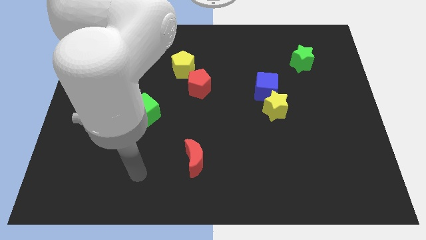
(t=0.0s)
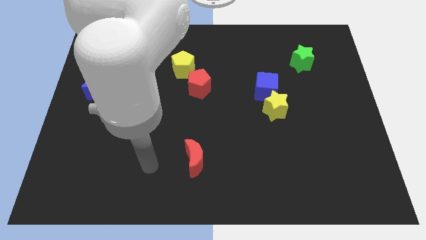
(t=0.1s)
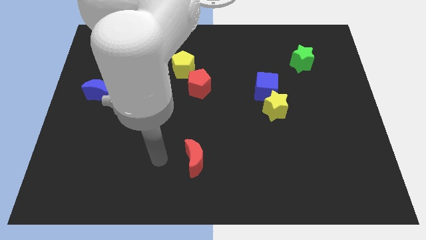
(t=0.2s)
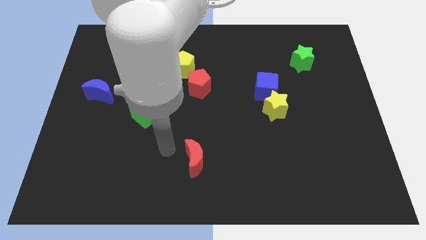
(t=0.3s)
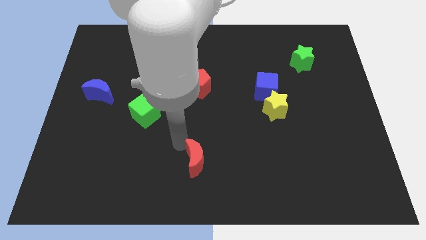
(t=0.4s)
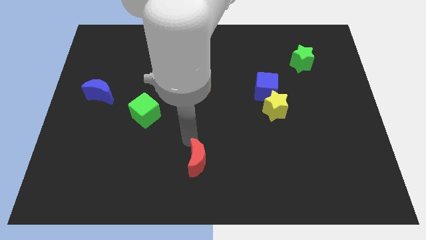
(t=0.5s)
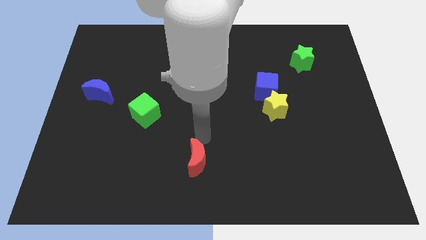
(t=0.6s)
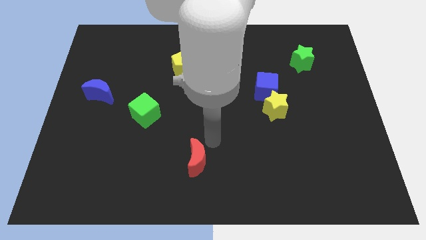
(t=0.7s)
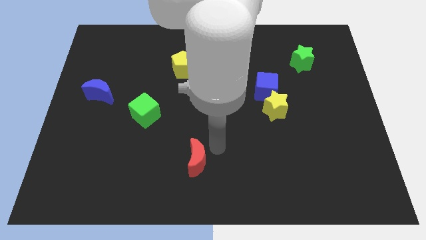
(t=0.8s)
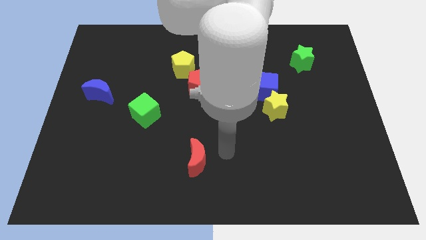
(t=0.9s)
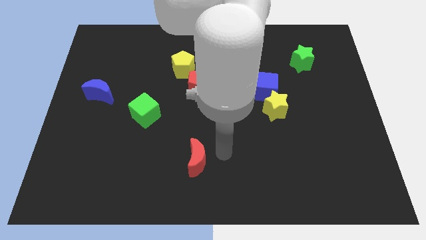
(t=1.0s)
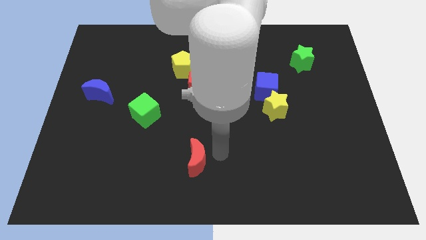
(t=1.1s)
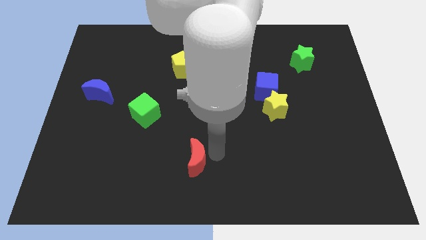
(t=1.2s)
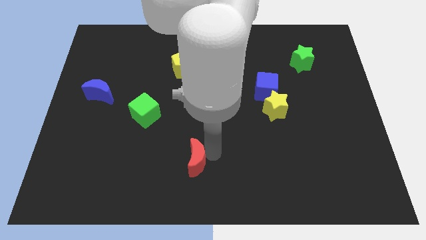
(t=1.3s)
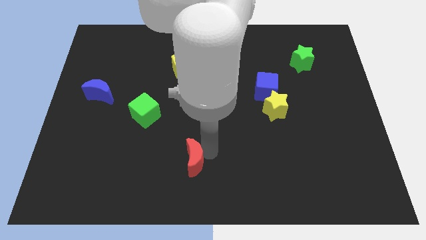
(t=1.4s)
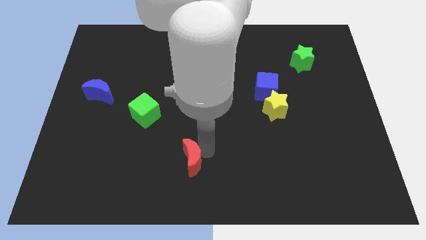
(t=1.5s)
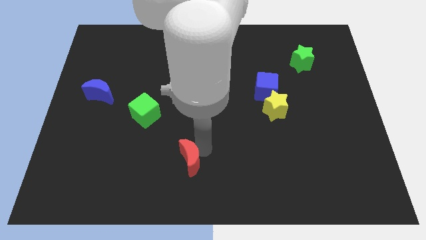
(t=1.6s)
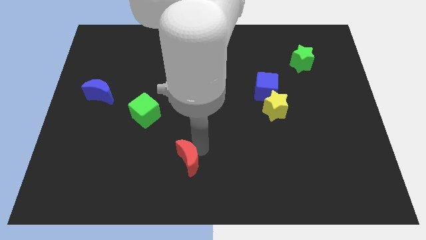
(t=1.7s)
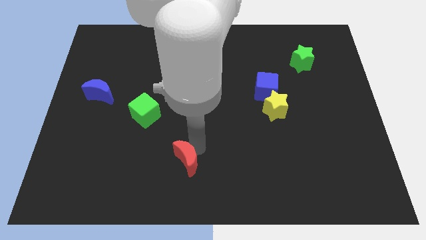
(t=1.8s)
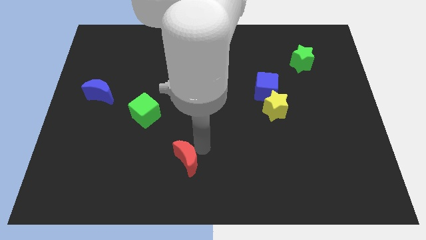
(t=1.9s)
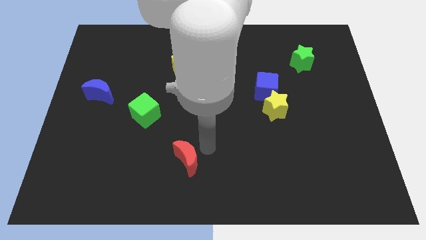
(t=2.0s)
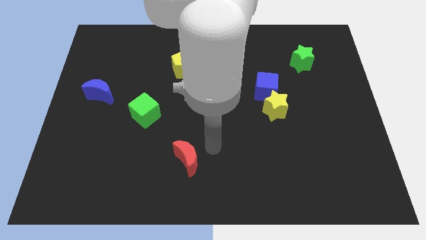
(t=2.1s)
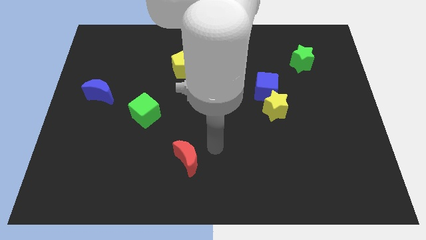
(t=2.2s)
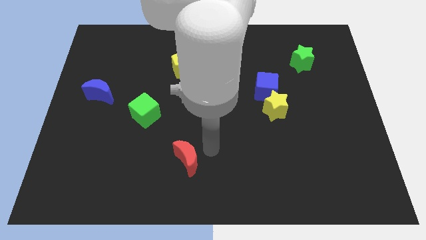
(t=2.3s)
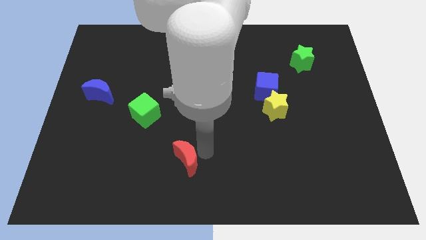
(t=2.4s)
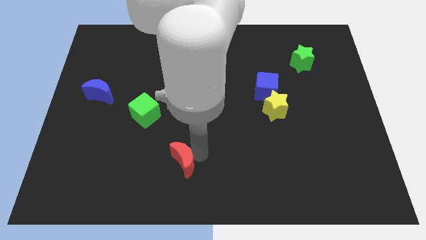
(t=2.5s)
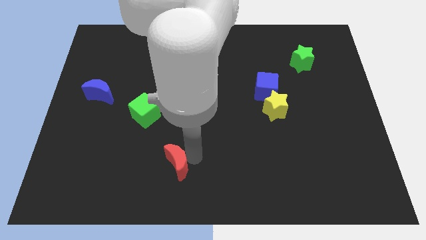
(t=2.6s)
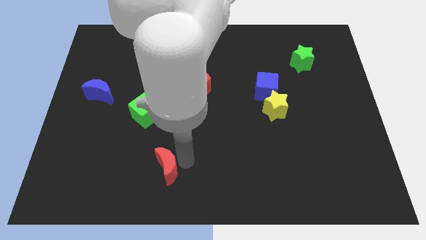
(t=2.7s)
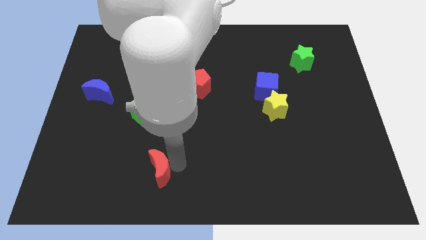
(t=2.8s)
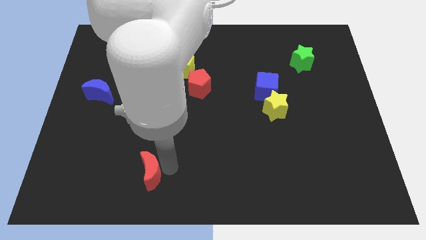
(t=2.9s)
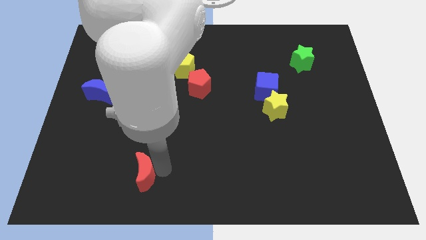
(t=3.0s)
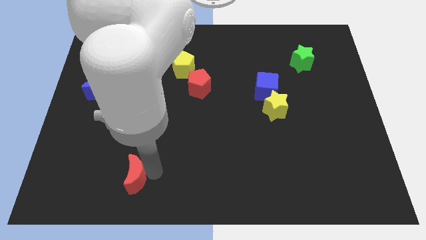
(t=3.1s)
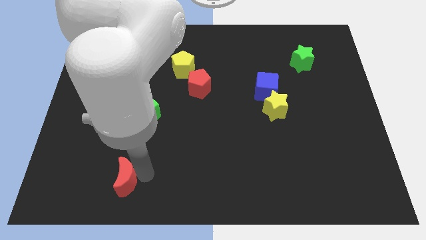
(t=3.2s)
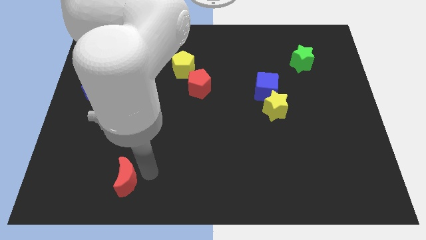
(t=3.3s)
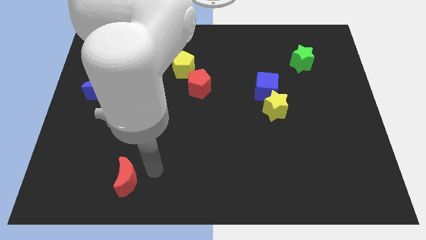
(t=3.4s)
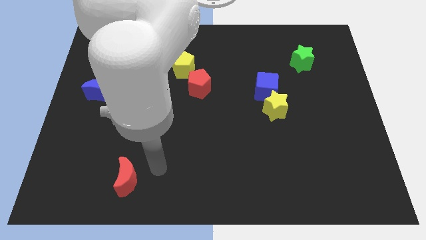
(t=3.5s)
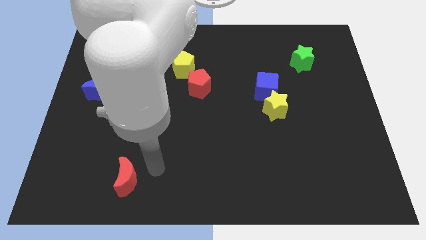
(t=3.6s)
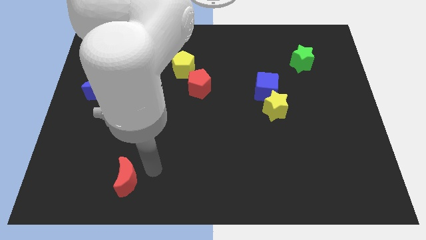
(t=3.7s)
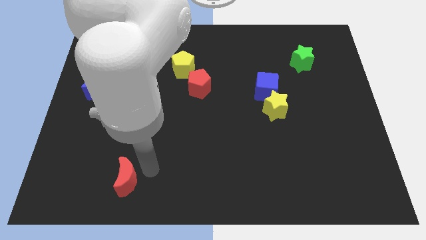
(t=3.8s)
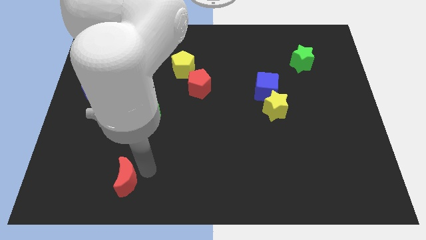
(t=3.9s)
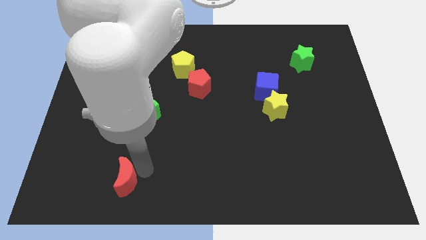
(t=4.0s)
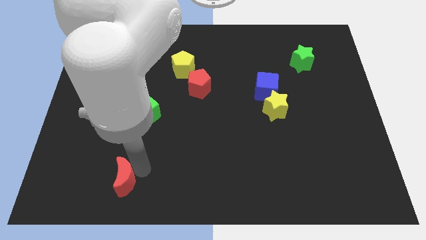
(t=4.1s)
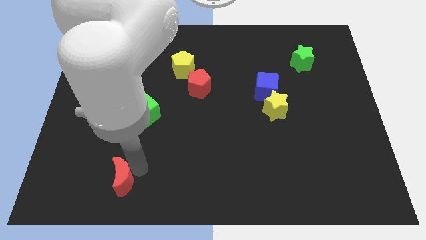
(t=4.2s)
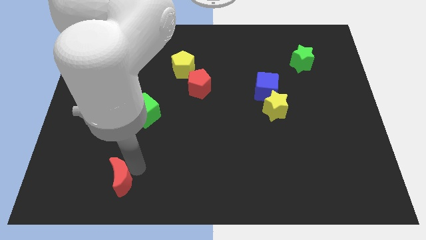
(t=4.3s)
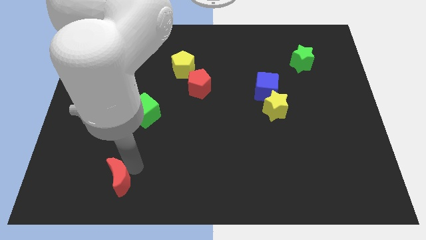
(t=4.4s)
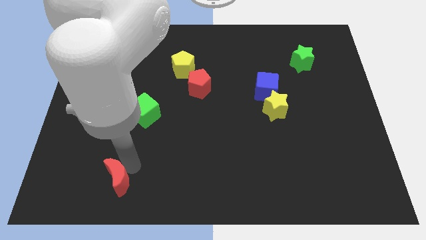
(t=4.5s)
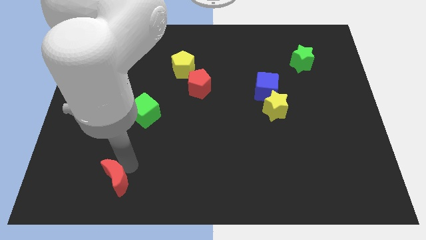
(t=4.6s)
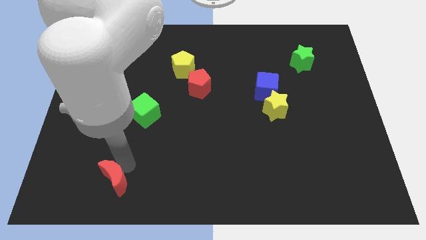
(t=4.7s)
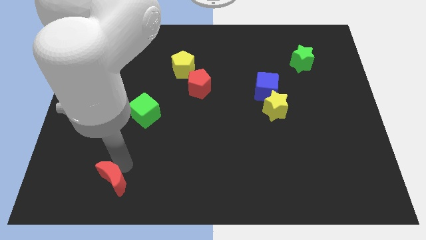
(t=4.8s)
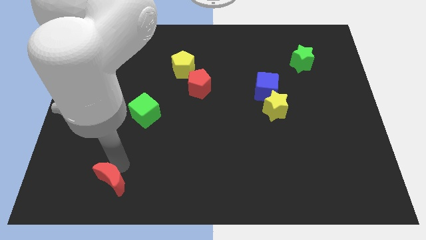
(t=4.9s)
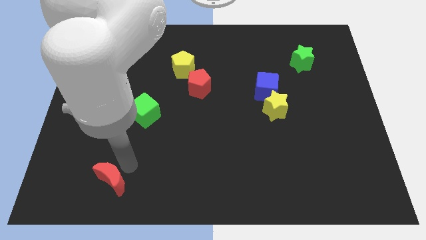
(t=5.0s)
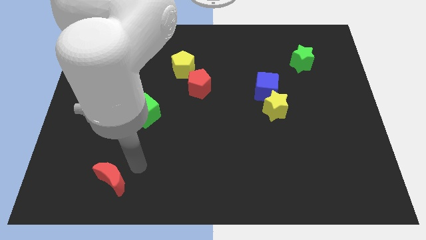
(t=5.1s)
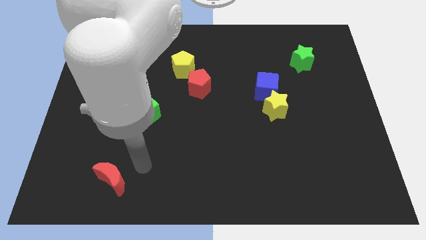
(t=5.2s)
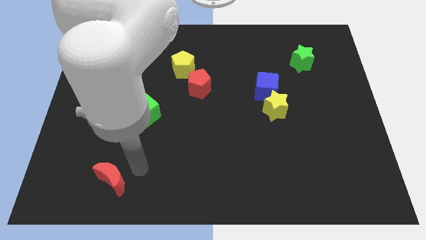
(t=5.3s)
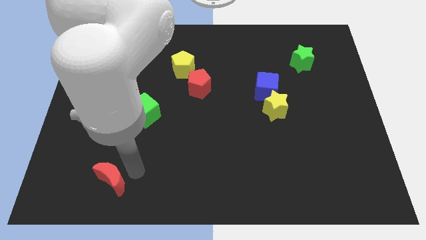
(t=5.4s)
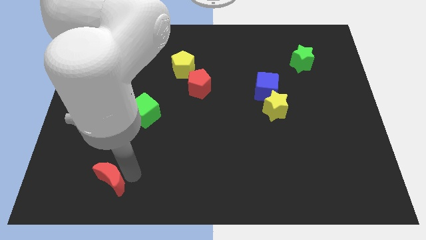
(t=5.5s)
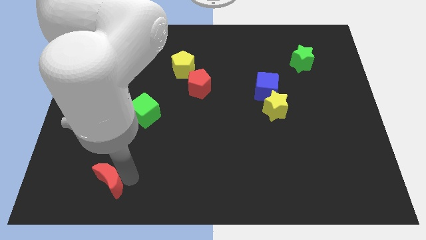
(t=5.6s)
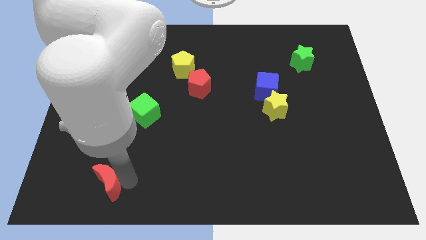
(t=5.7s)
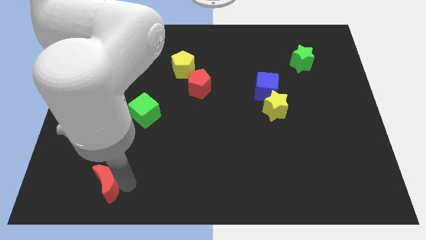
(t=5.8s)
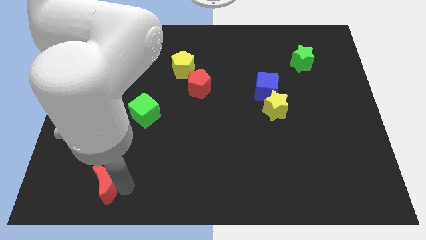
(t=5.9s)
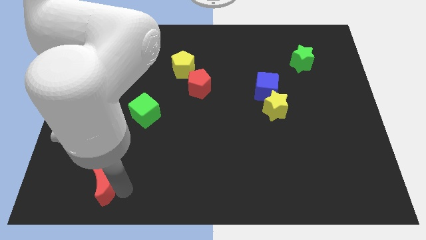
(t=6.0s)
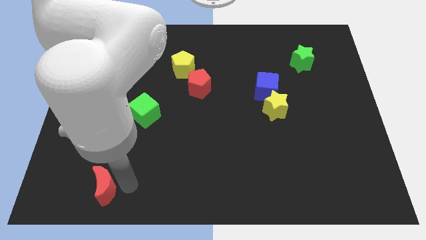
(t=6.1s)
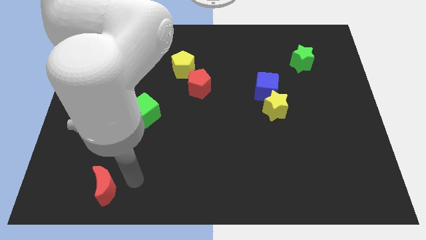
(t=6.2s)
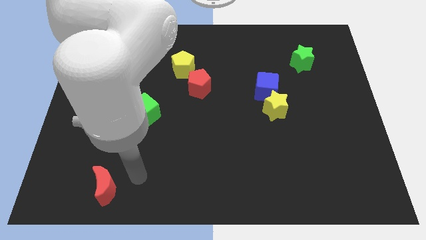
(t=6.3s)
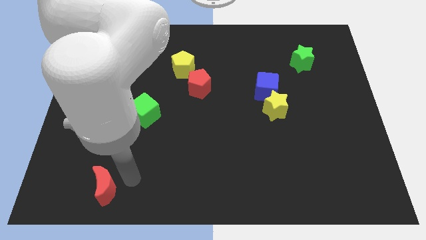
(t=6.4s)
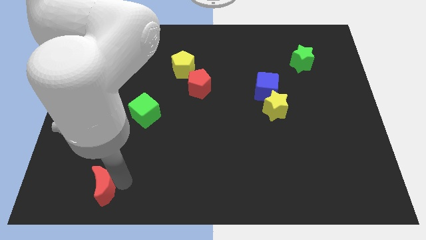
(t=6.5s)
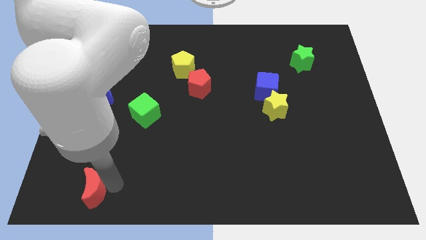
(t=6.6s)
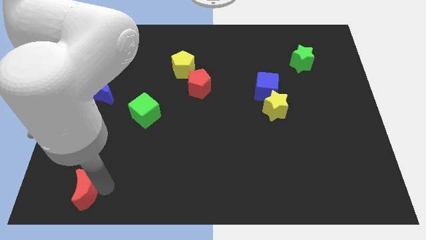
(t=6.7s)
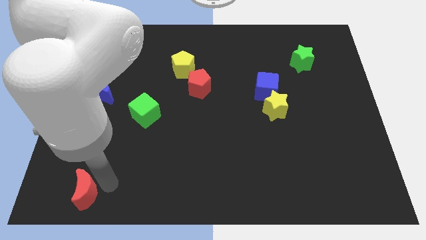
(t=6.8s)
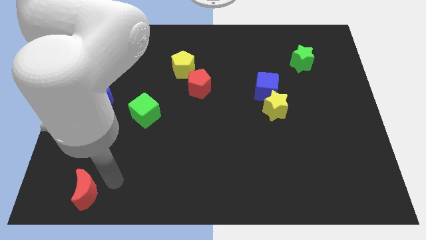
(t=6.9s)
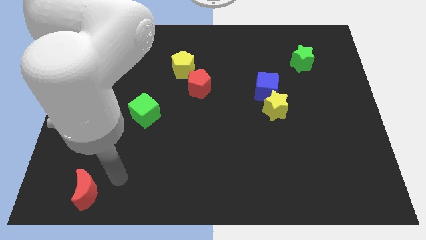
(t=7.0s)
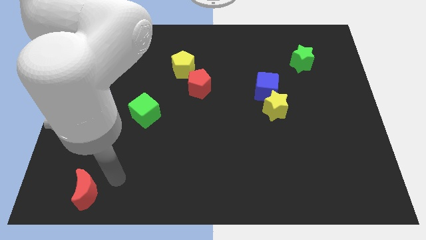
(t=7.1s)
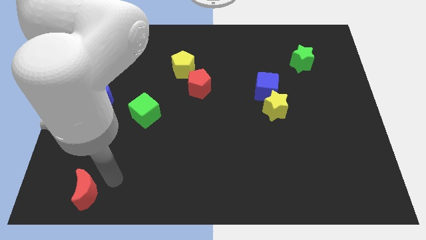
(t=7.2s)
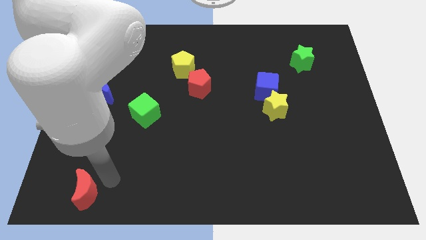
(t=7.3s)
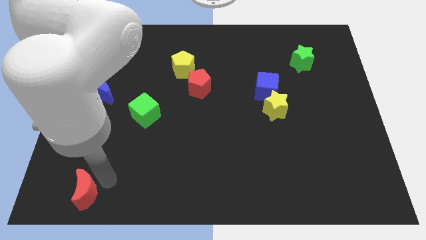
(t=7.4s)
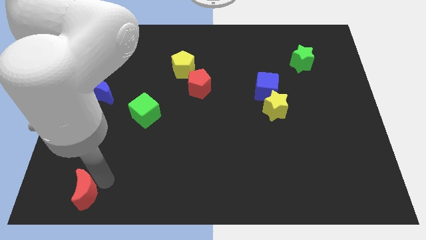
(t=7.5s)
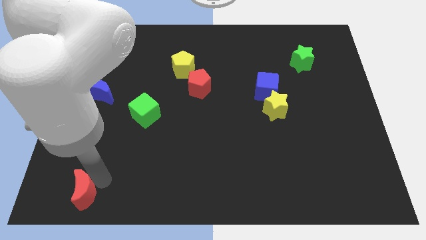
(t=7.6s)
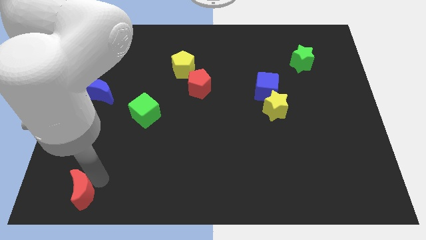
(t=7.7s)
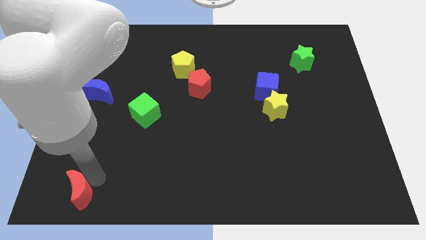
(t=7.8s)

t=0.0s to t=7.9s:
push the red moon to the lower left corner
